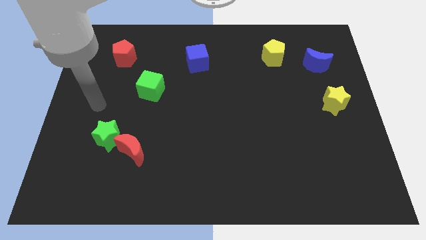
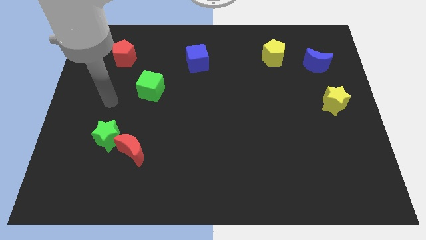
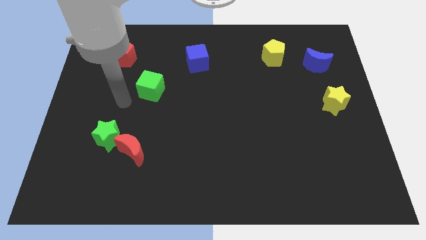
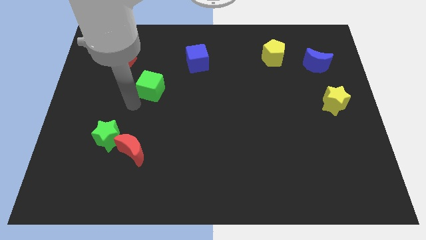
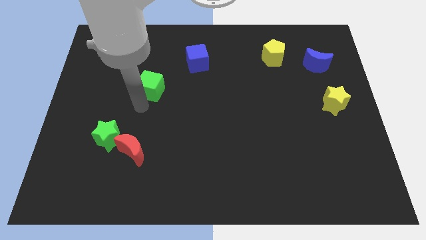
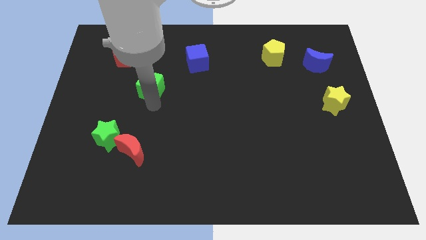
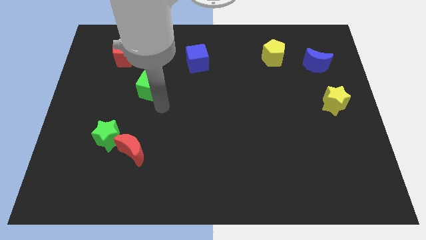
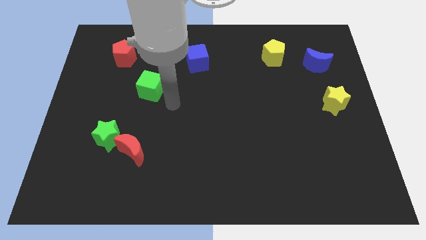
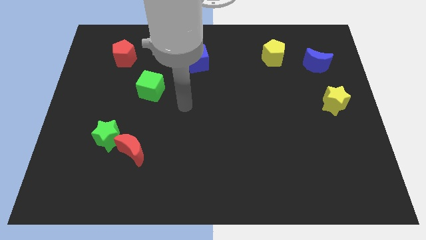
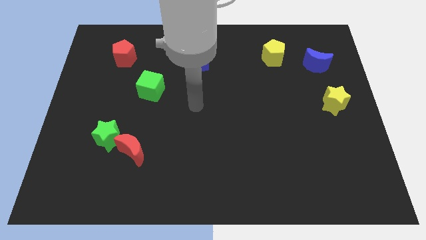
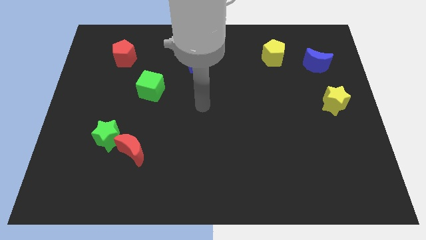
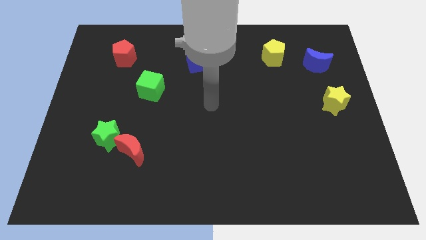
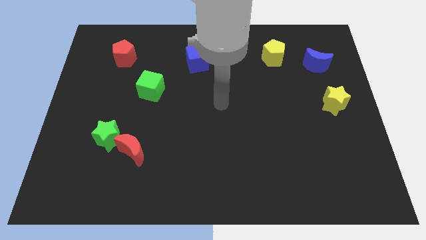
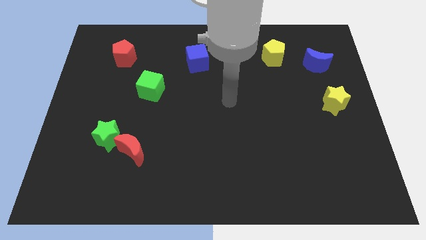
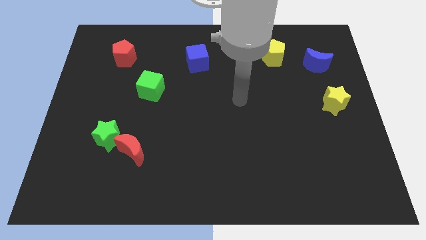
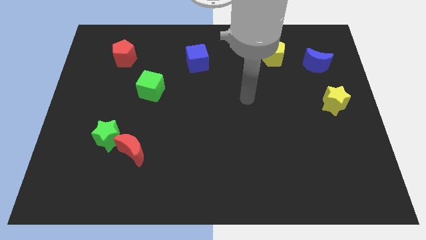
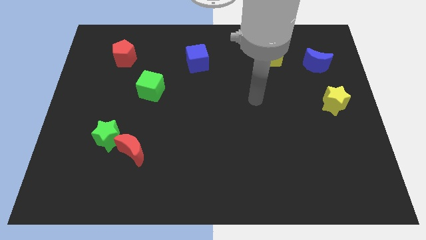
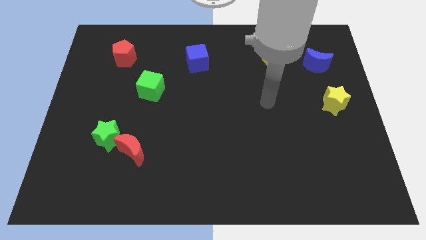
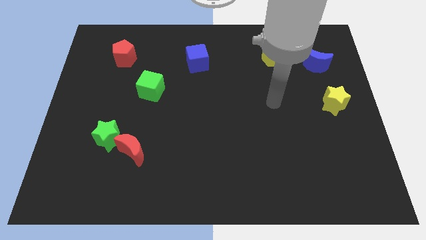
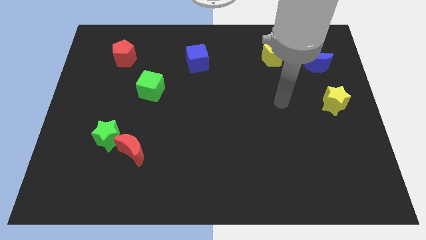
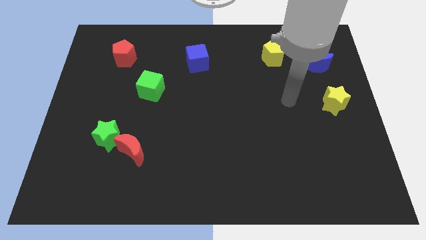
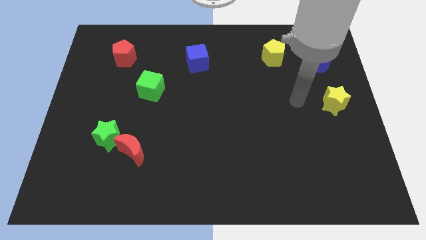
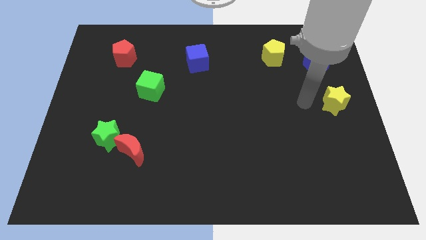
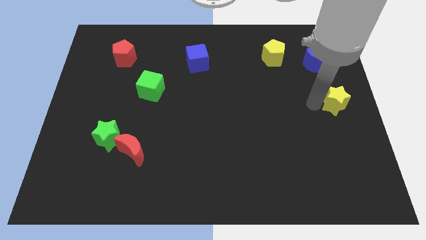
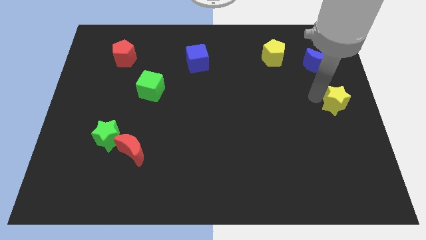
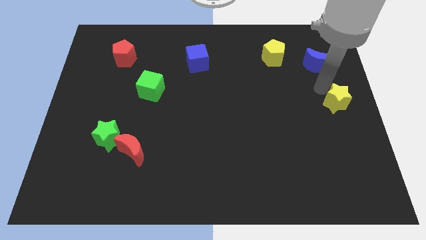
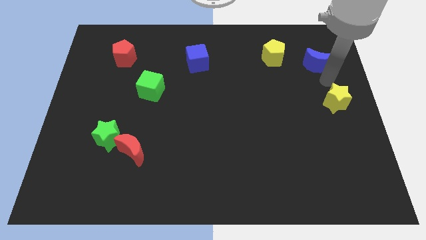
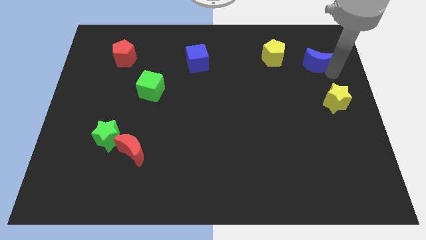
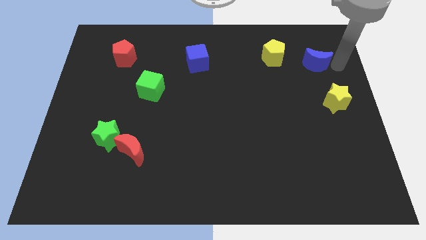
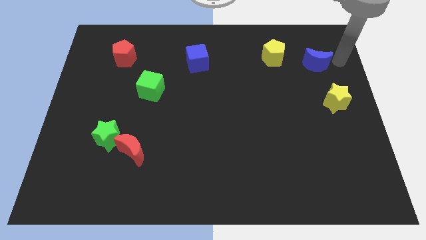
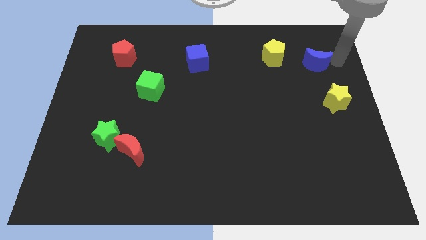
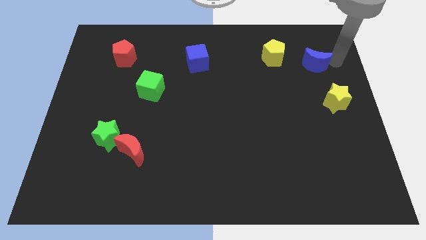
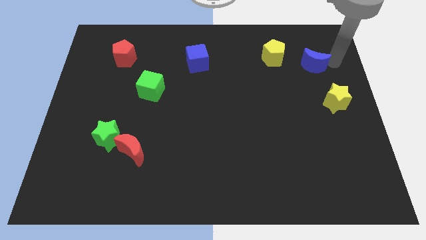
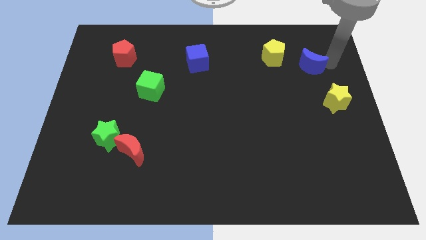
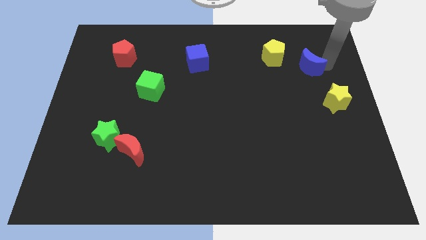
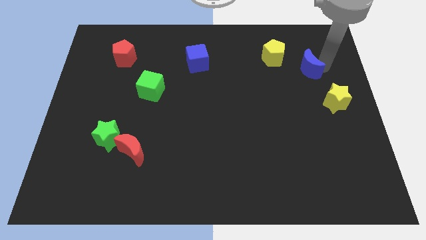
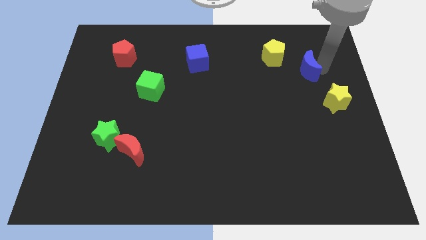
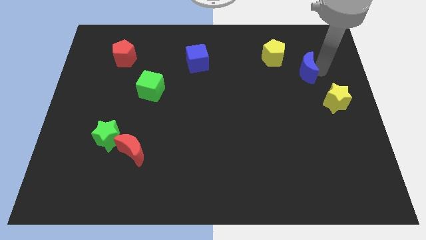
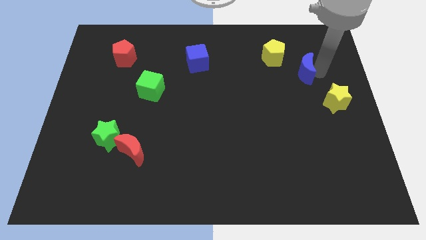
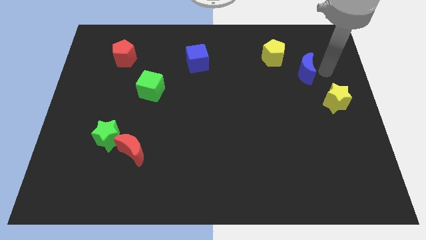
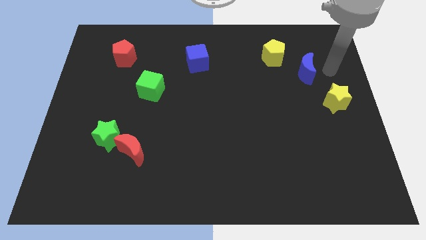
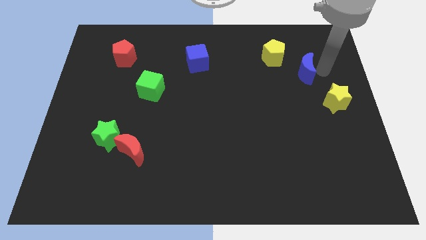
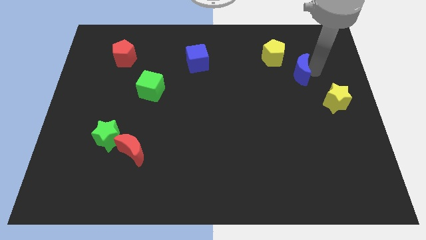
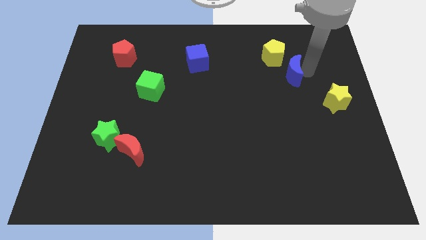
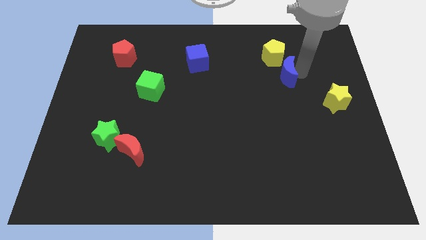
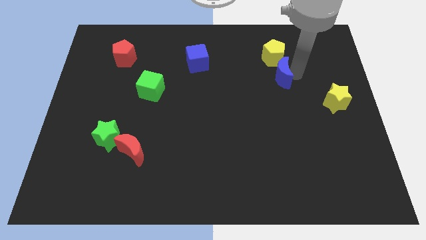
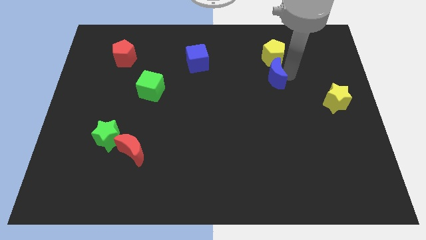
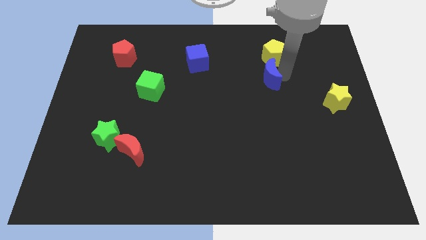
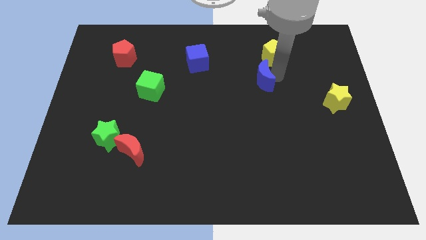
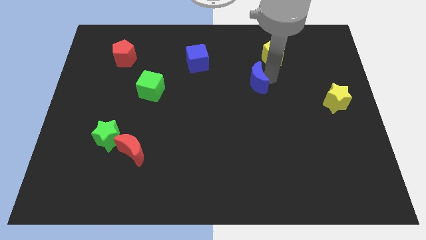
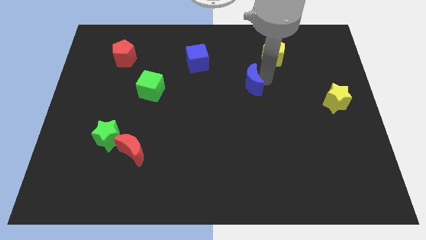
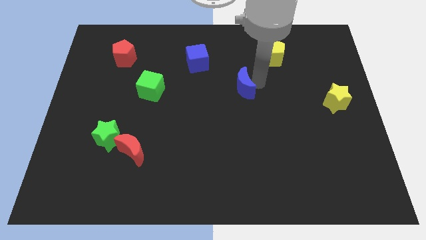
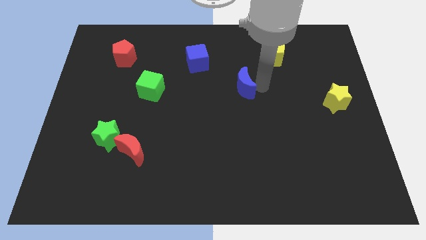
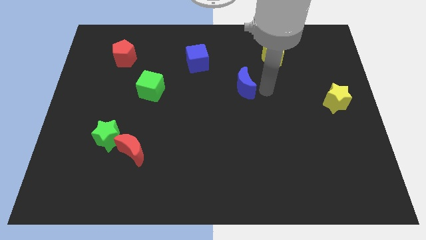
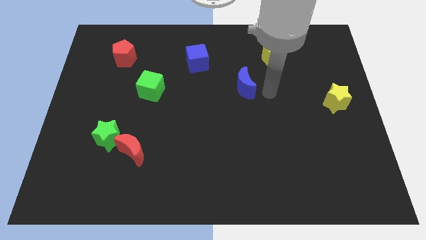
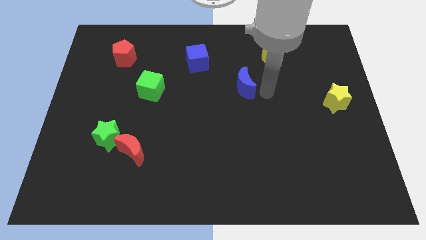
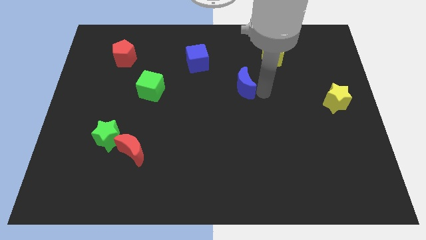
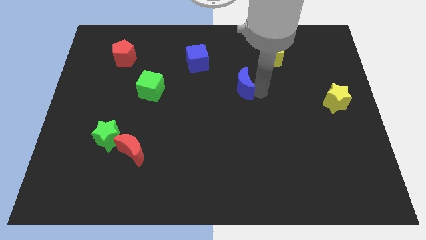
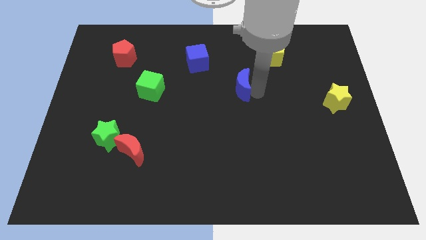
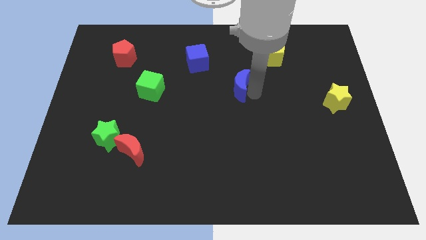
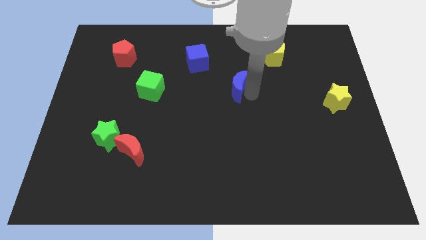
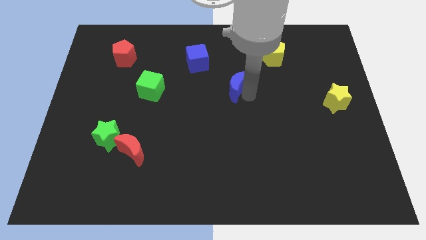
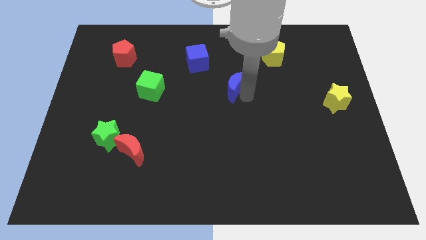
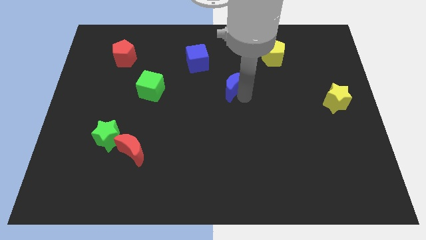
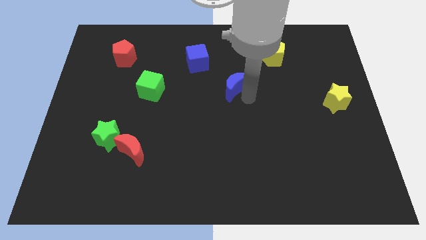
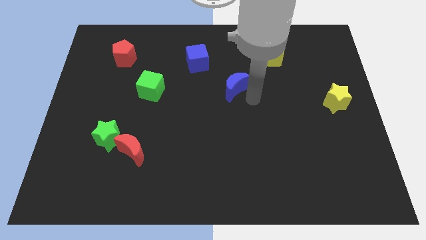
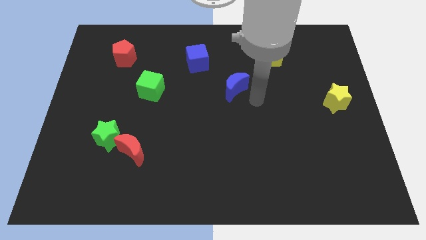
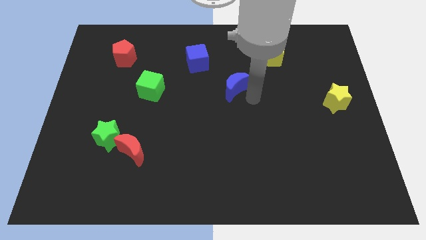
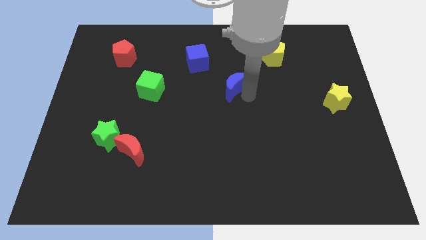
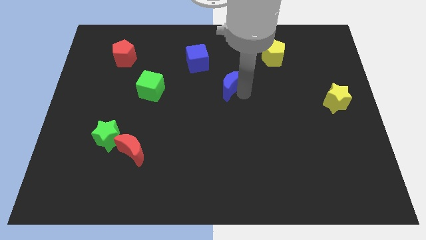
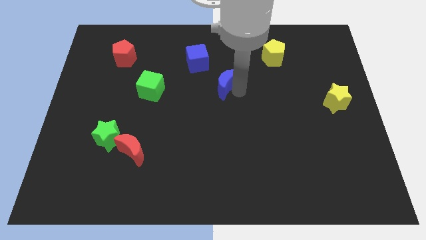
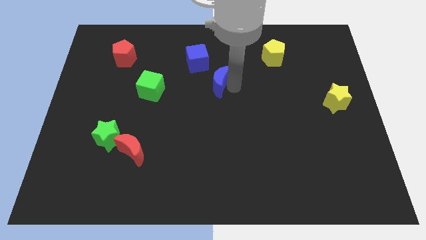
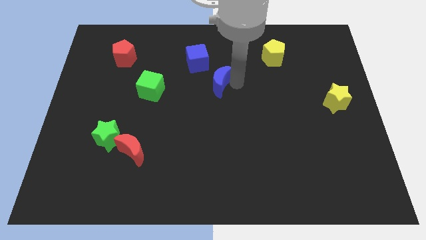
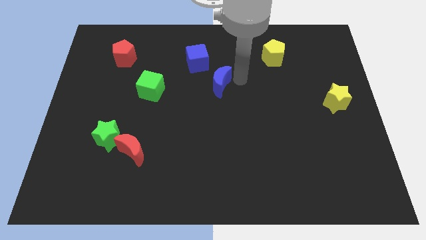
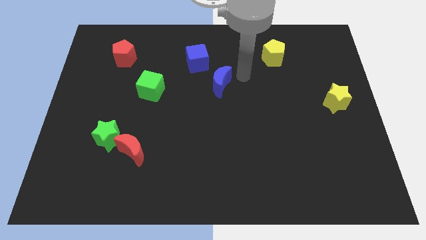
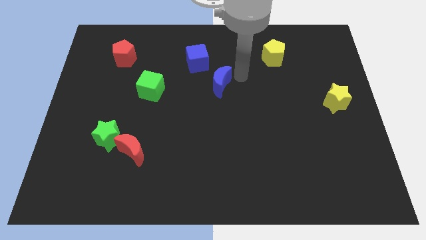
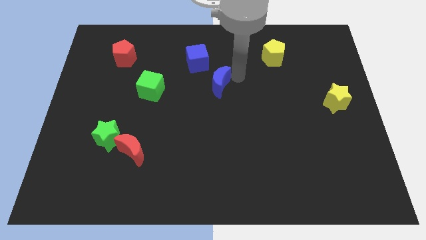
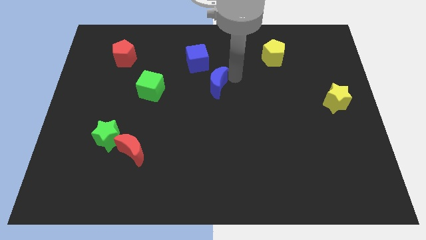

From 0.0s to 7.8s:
slide the blue moon to the bottom of the blue cube
